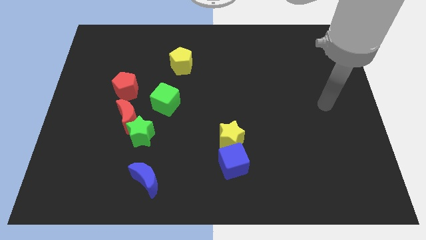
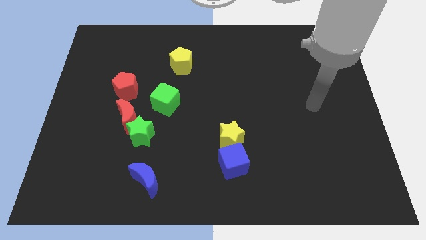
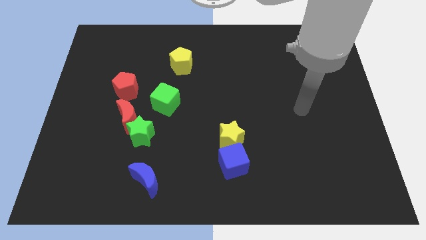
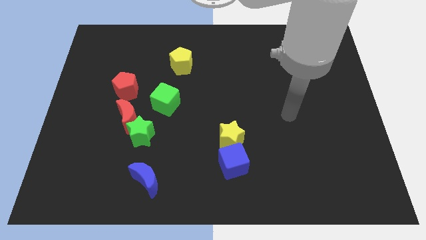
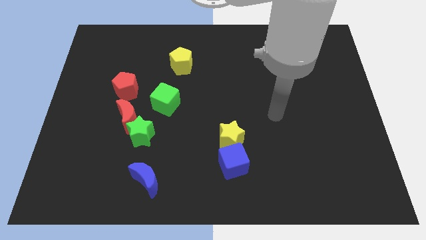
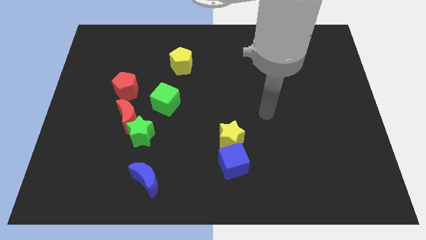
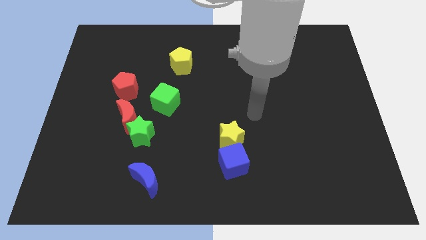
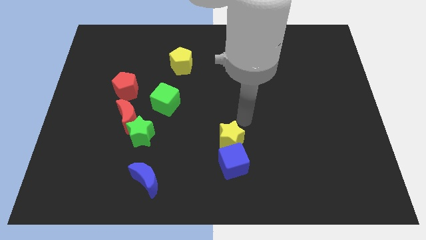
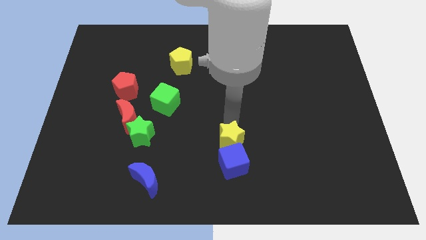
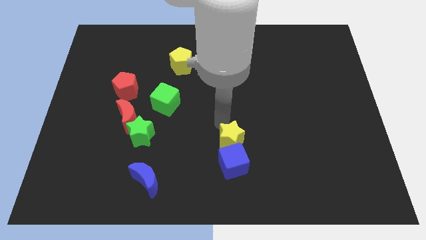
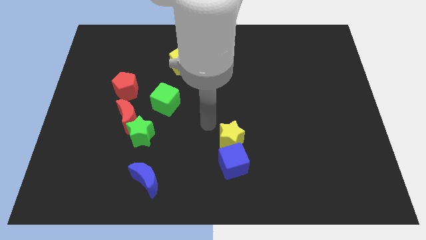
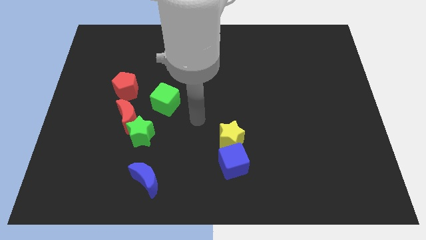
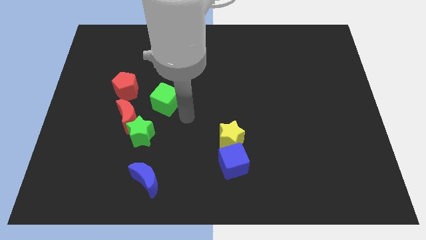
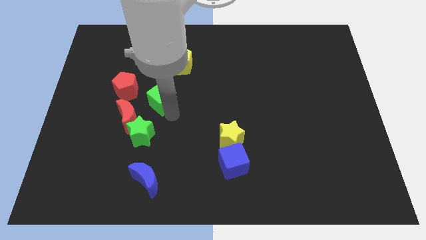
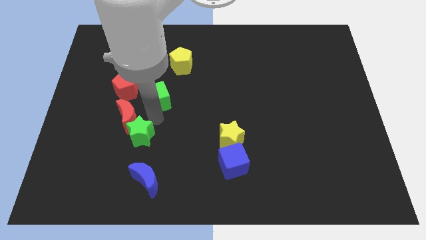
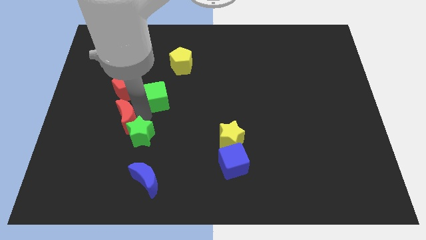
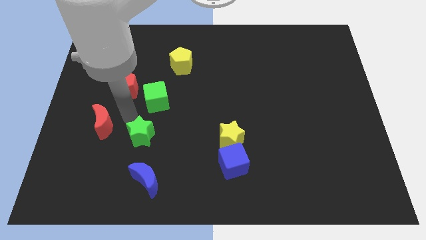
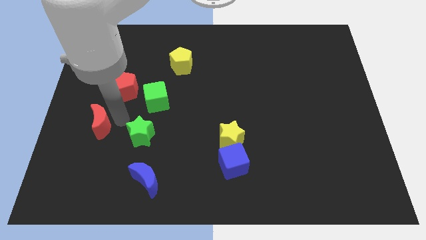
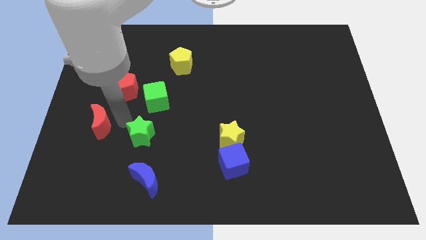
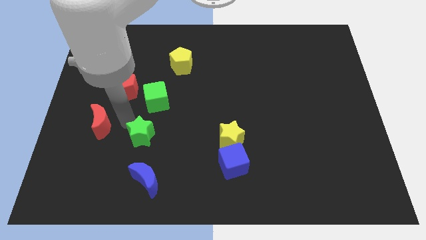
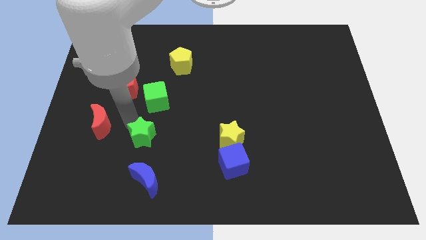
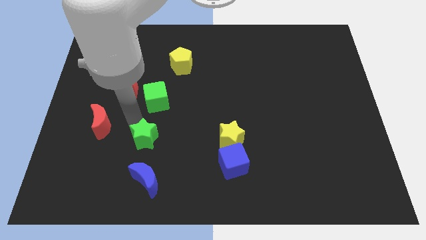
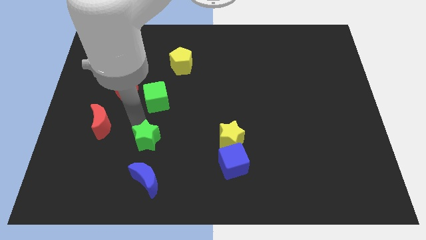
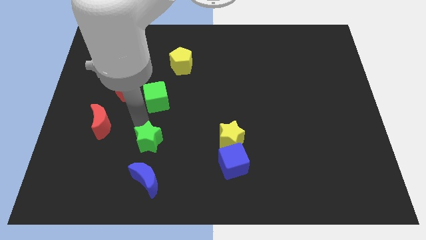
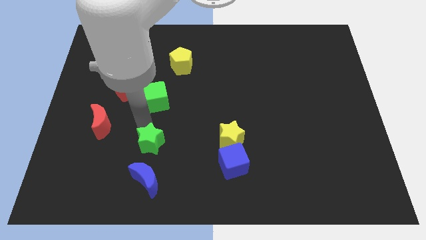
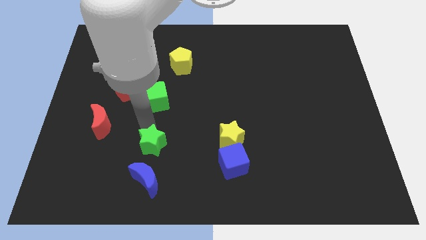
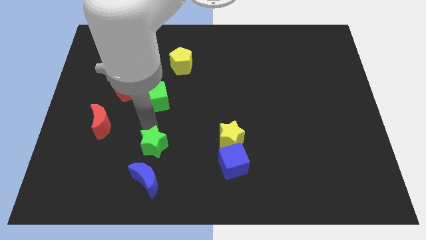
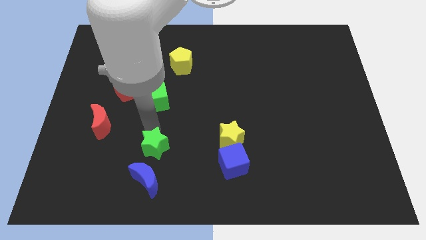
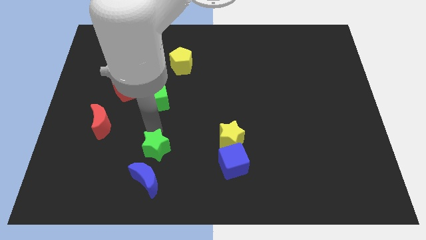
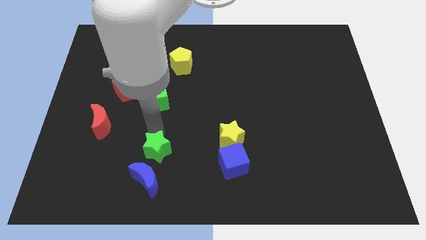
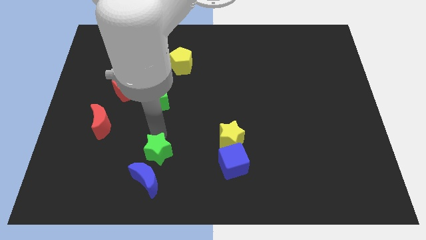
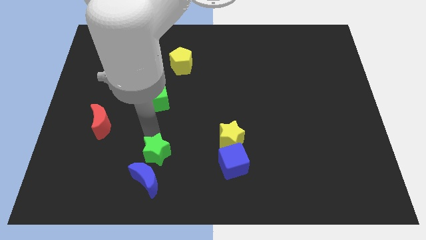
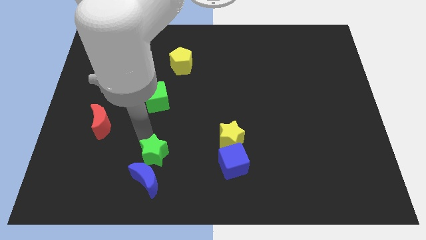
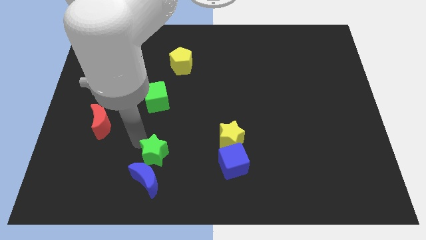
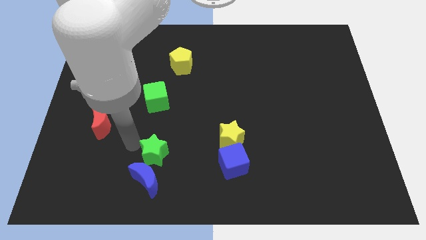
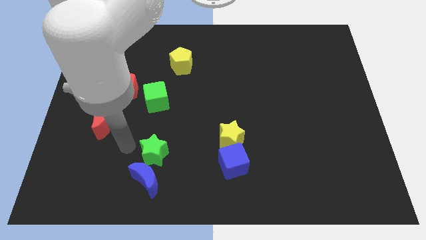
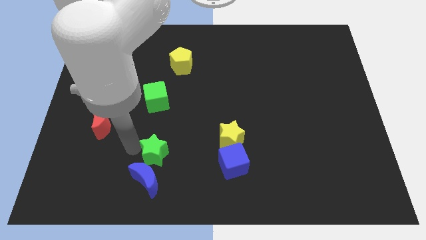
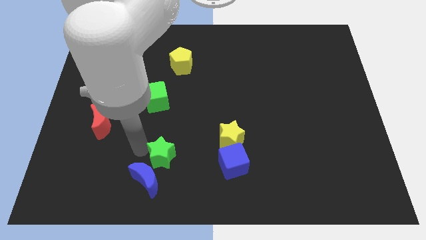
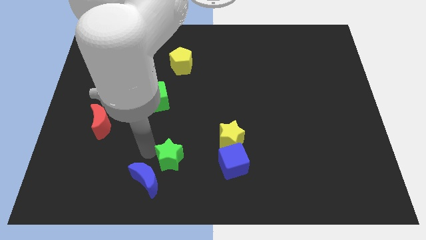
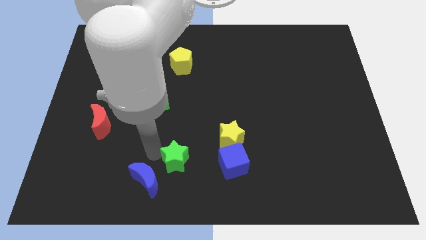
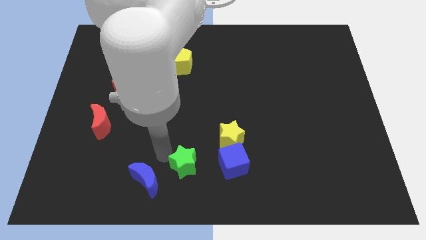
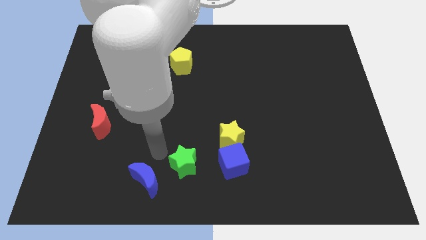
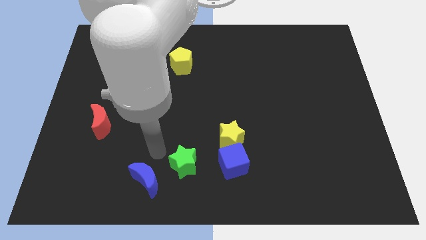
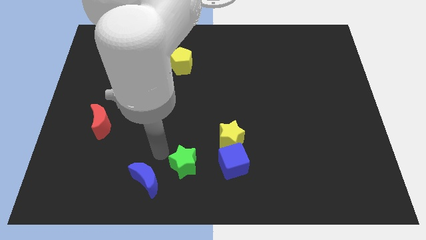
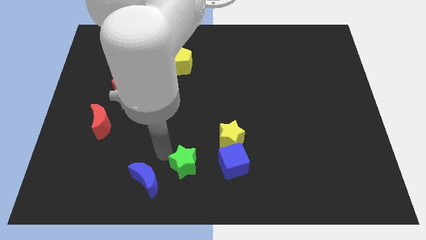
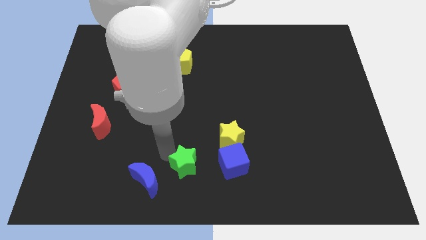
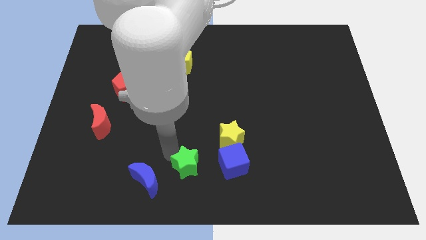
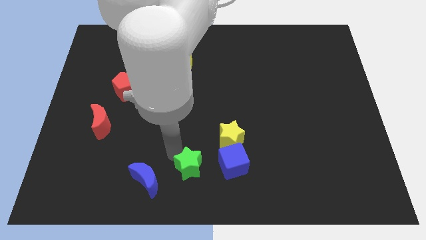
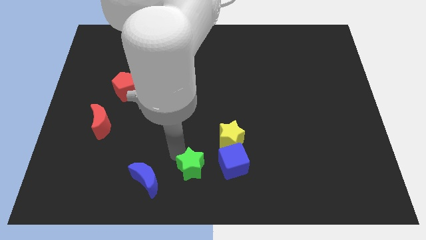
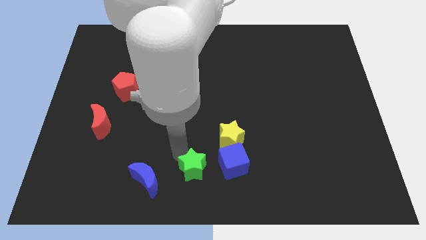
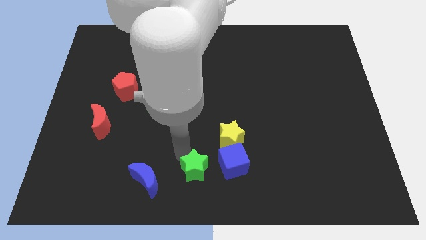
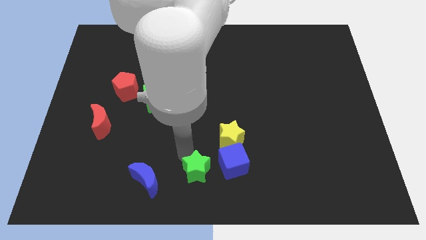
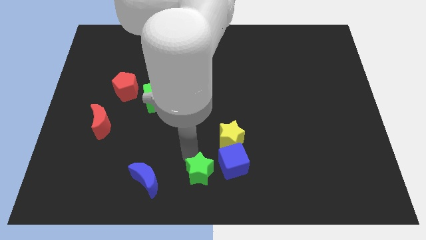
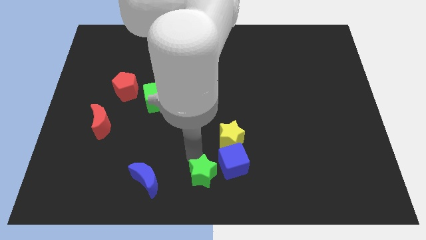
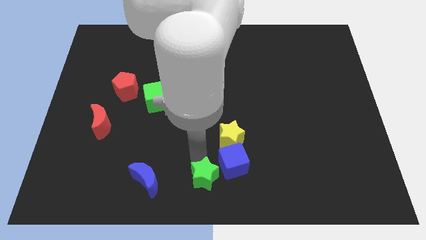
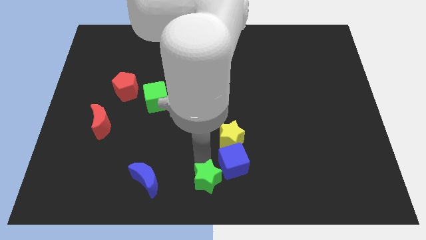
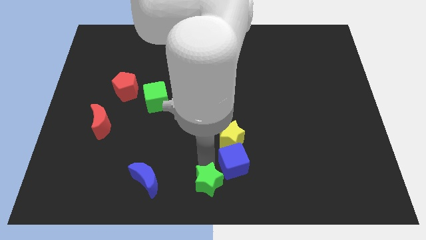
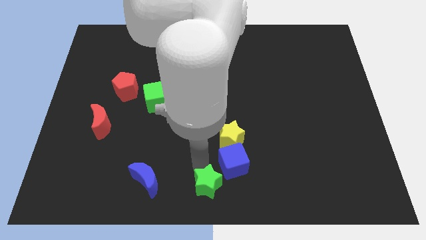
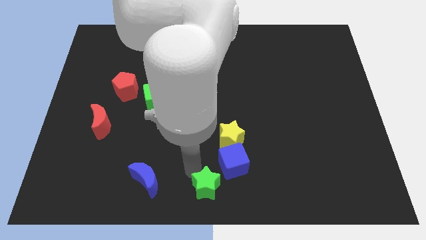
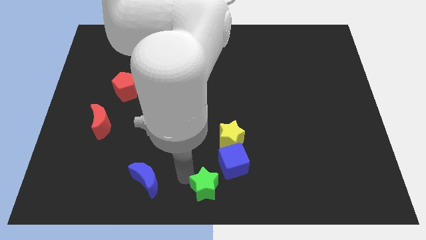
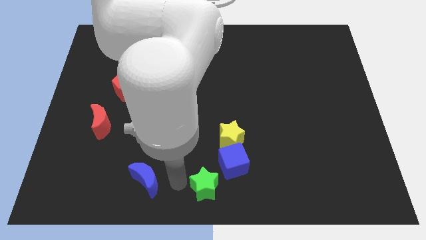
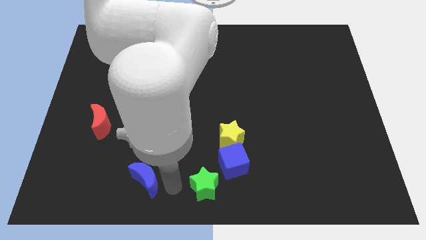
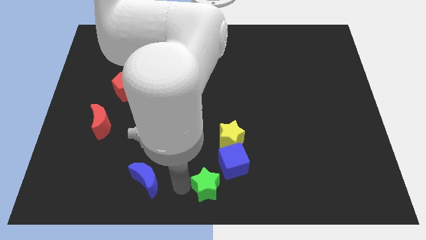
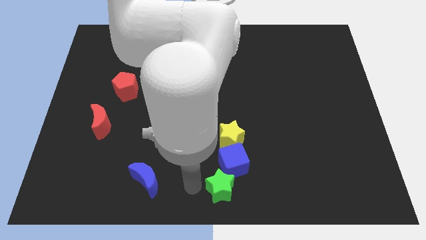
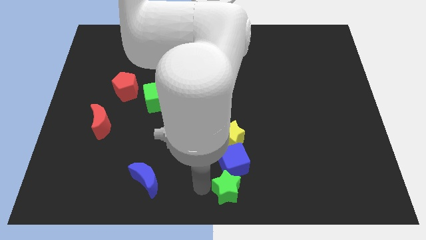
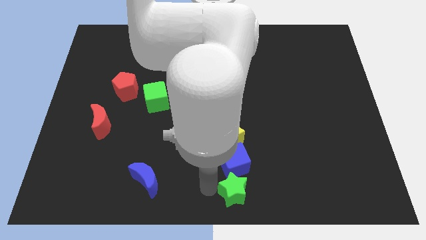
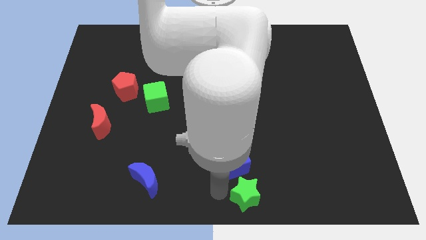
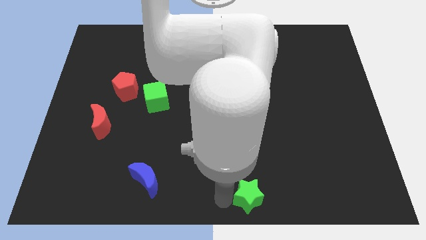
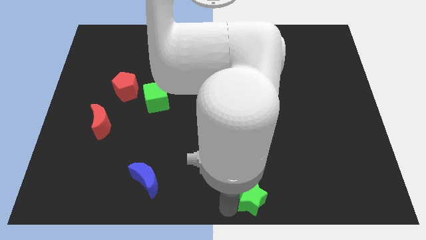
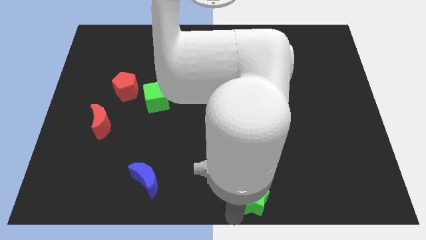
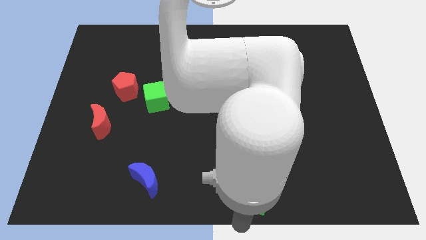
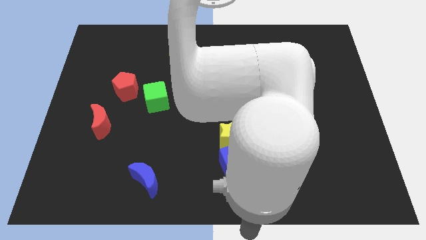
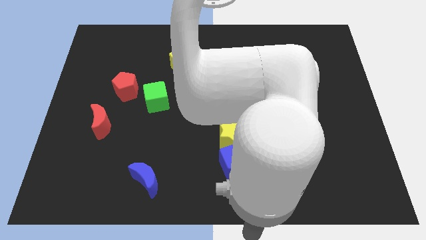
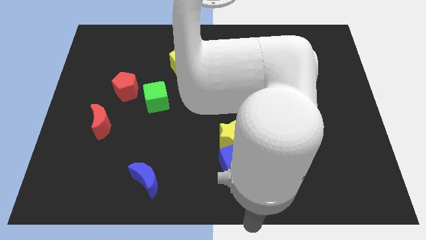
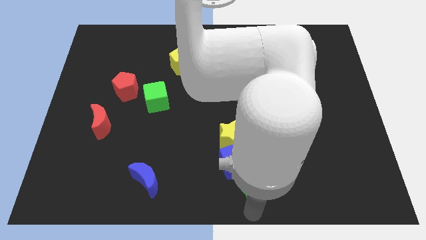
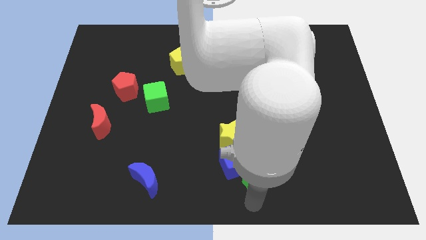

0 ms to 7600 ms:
slide the green star diagonally down and to the right of the yellow star
